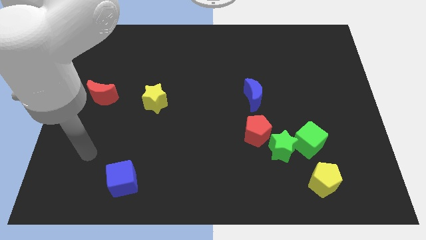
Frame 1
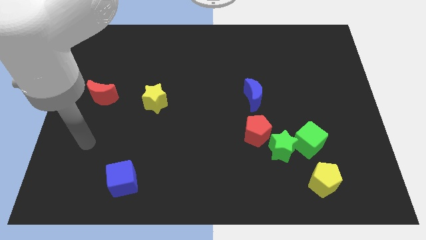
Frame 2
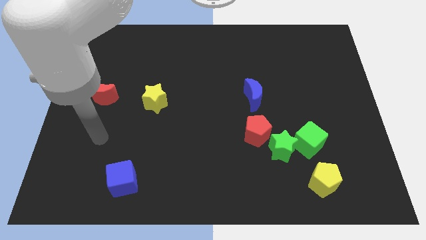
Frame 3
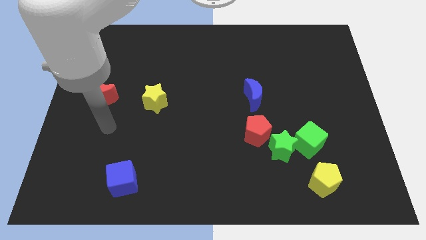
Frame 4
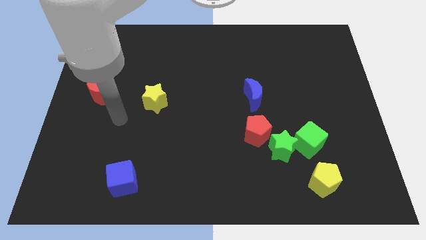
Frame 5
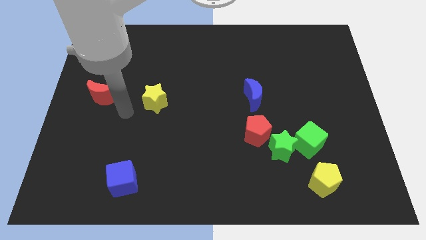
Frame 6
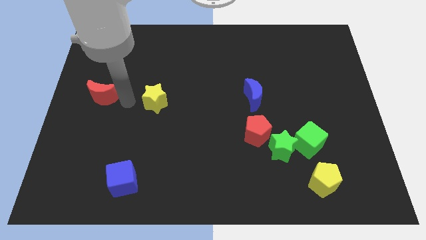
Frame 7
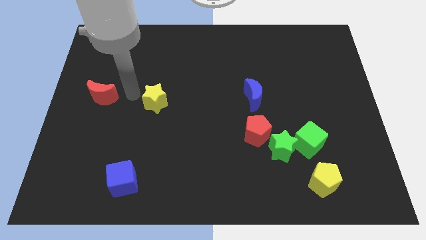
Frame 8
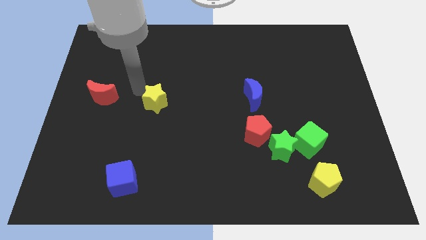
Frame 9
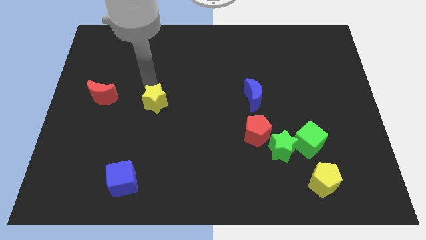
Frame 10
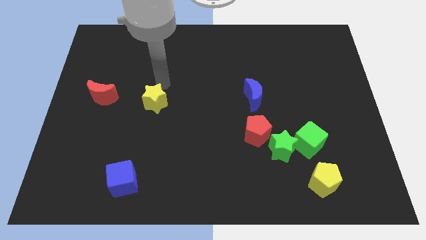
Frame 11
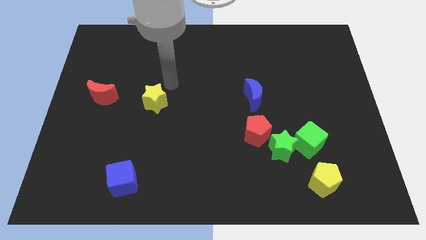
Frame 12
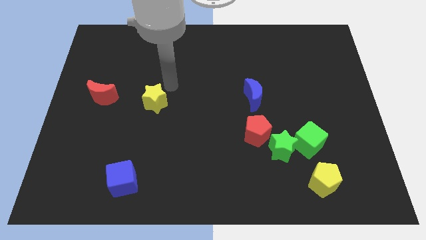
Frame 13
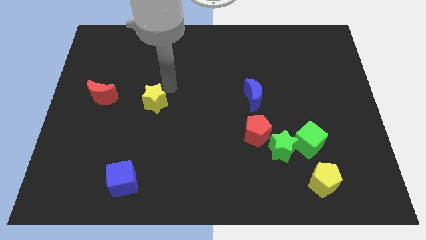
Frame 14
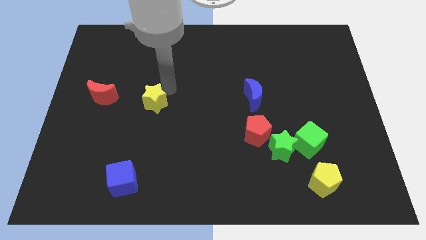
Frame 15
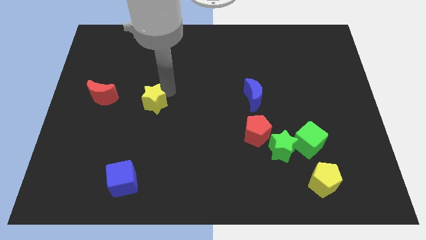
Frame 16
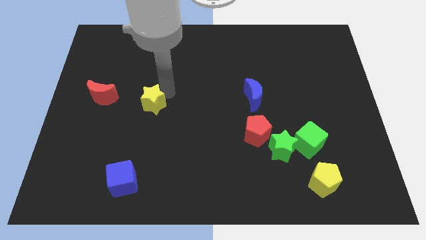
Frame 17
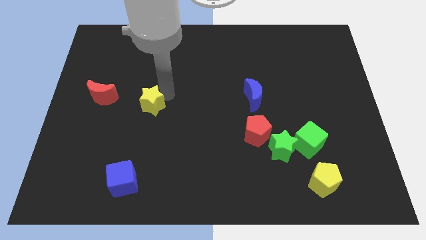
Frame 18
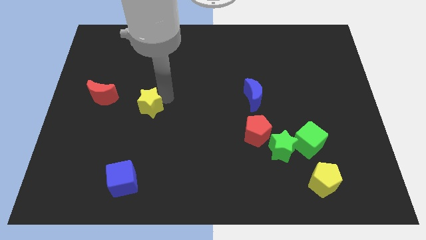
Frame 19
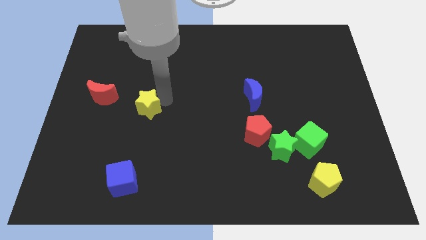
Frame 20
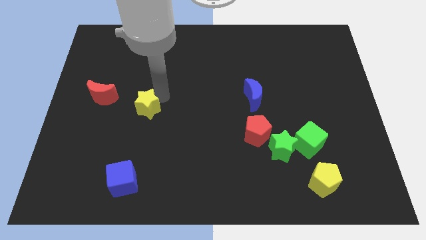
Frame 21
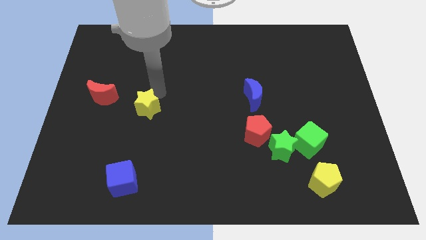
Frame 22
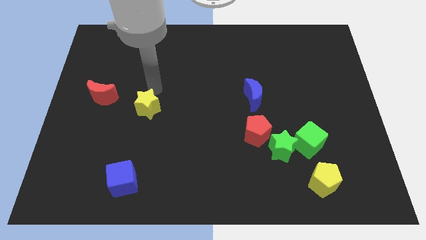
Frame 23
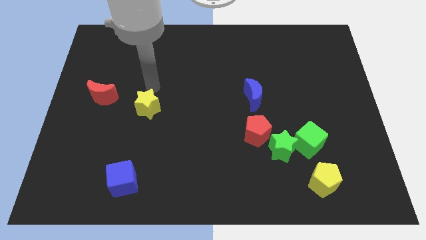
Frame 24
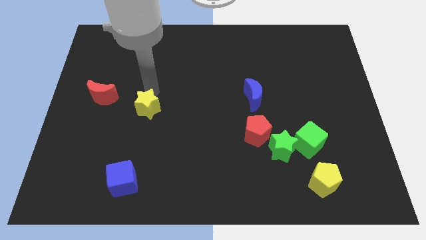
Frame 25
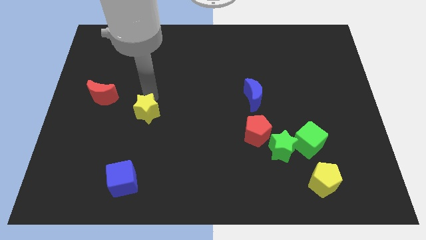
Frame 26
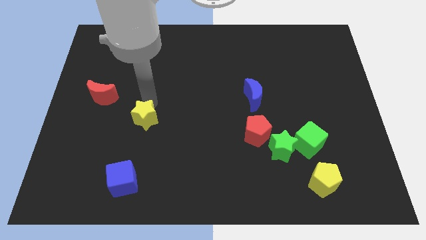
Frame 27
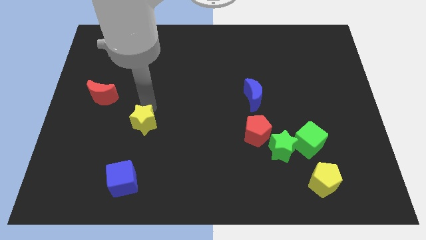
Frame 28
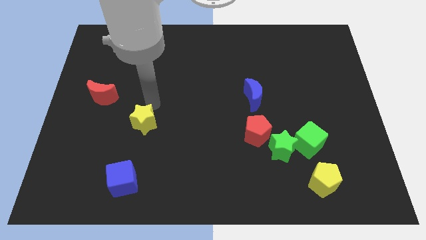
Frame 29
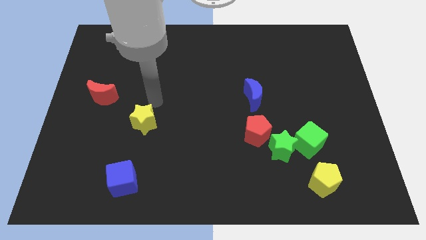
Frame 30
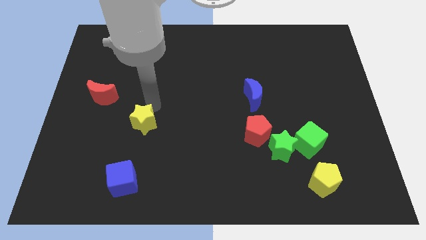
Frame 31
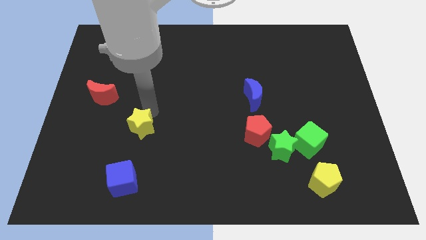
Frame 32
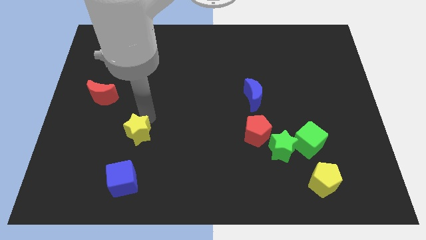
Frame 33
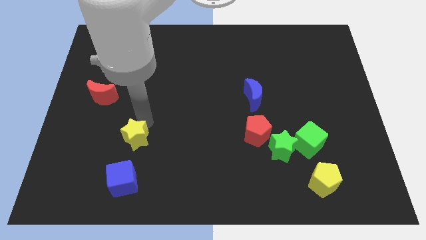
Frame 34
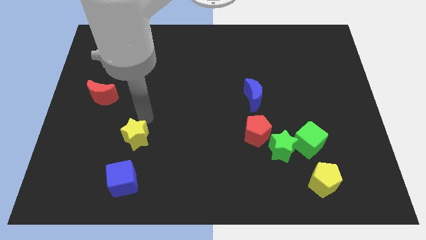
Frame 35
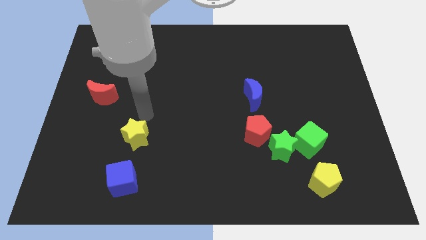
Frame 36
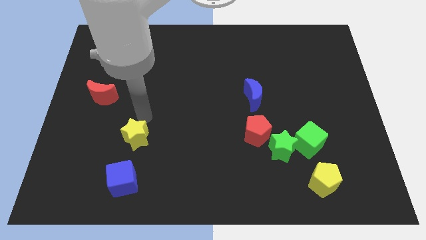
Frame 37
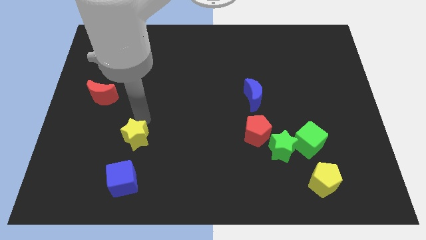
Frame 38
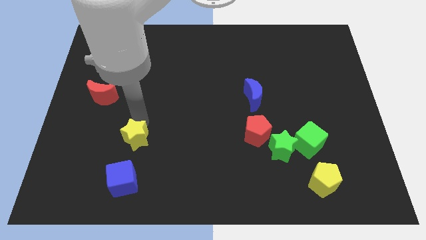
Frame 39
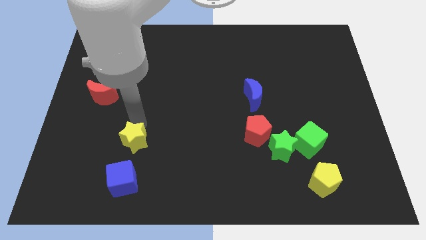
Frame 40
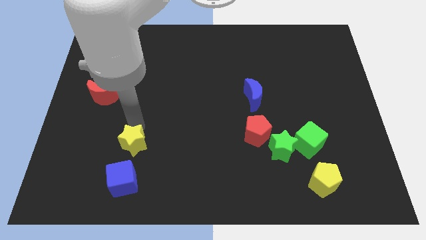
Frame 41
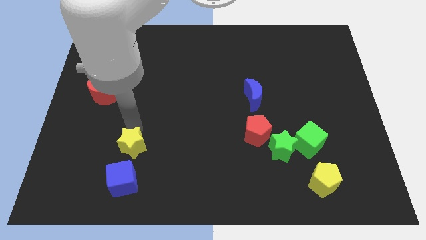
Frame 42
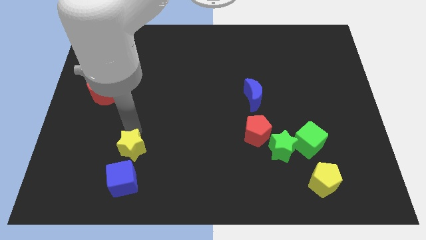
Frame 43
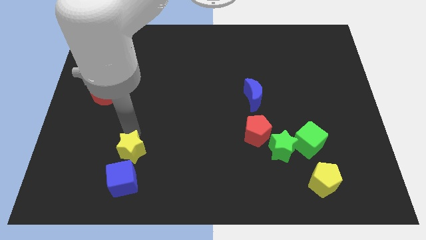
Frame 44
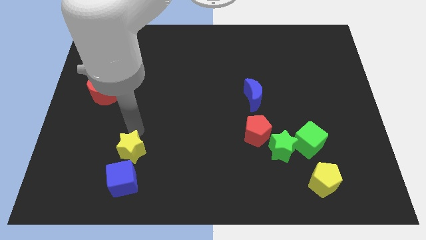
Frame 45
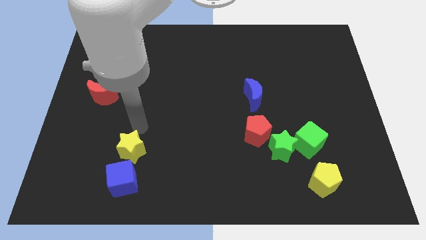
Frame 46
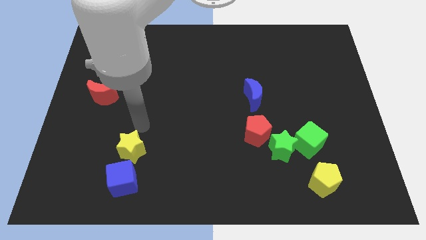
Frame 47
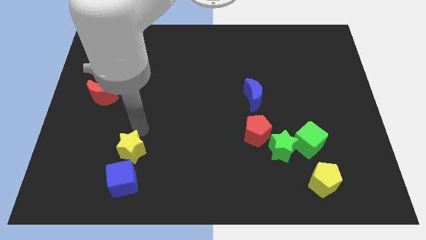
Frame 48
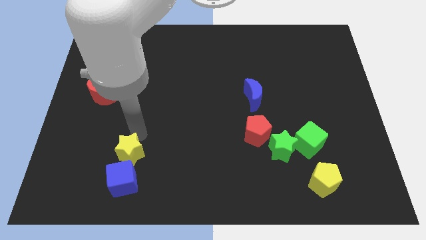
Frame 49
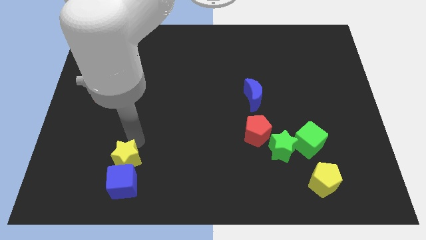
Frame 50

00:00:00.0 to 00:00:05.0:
push the yellow star close to the blue cube

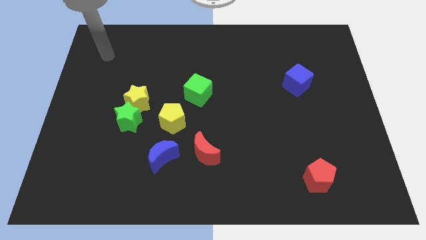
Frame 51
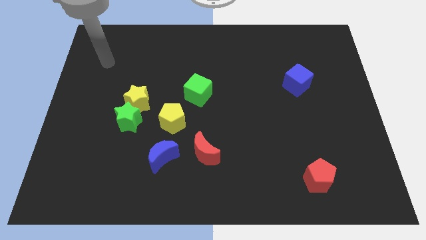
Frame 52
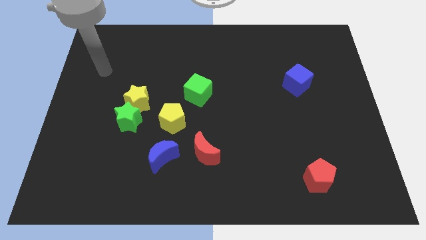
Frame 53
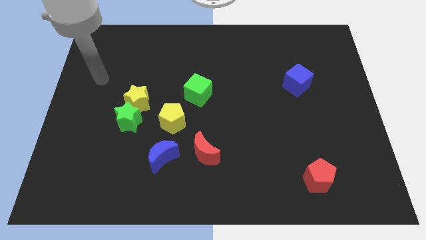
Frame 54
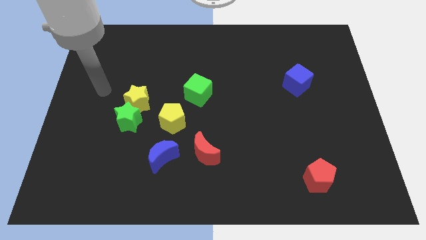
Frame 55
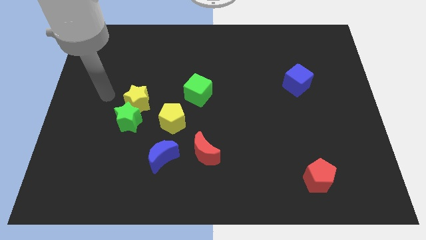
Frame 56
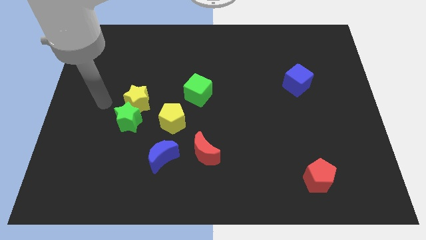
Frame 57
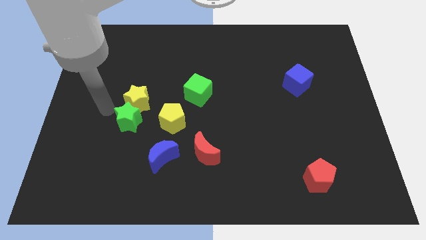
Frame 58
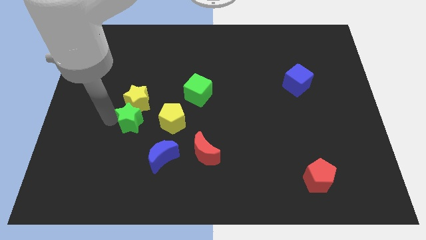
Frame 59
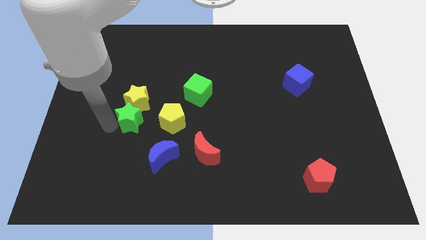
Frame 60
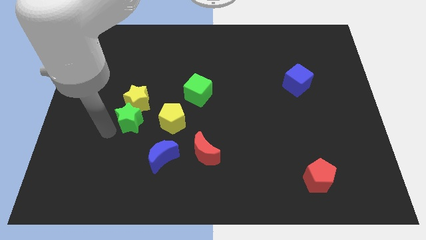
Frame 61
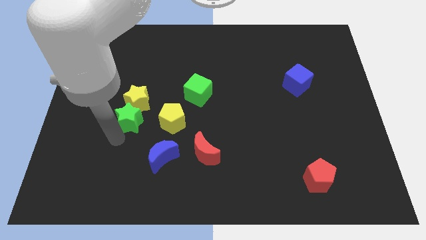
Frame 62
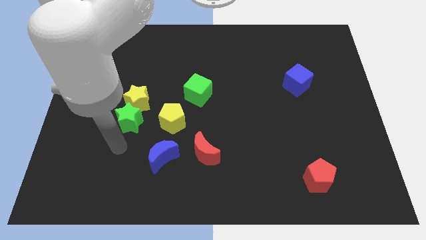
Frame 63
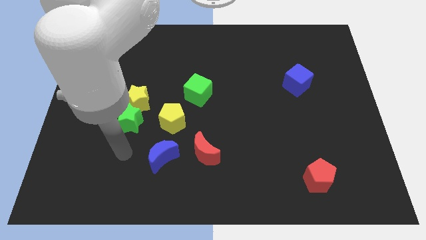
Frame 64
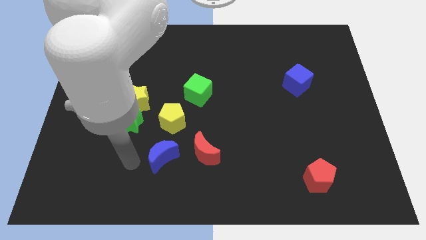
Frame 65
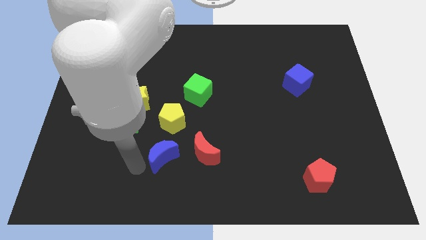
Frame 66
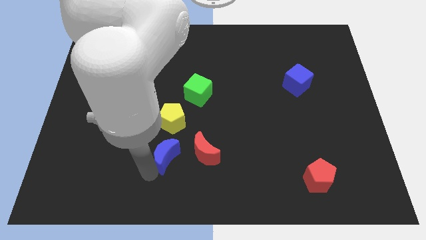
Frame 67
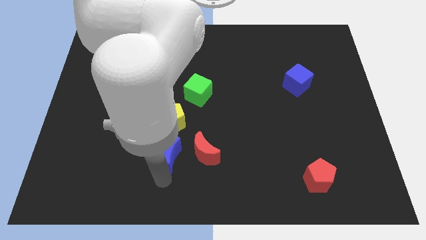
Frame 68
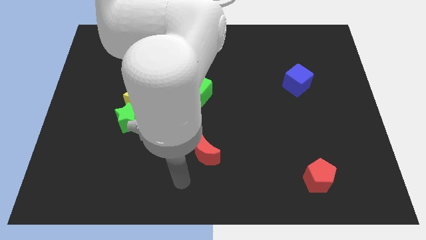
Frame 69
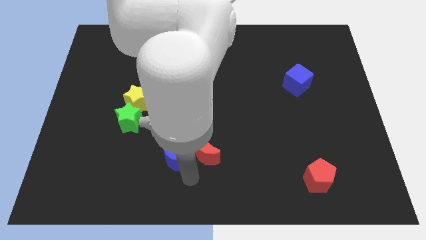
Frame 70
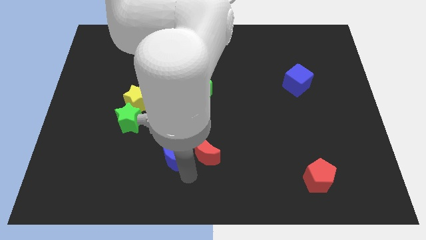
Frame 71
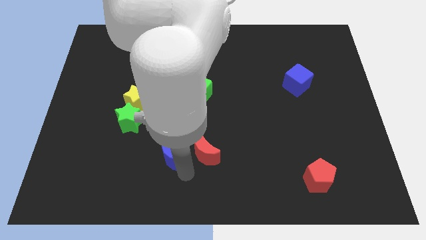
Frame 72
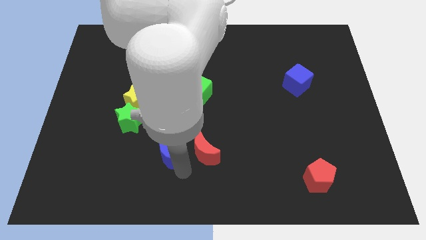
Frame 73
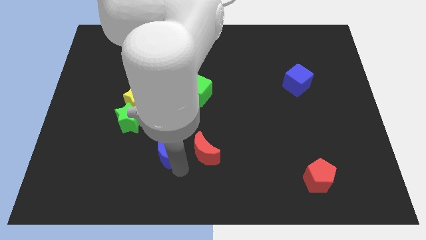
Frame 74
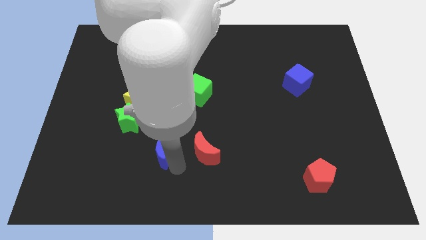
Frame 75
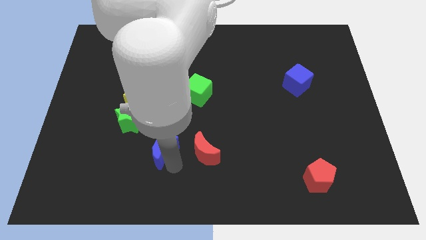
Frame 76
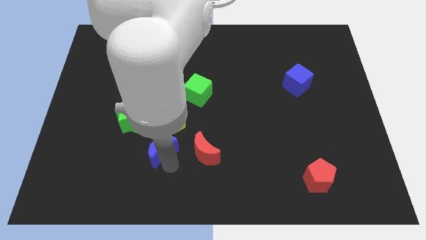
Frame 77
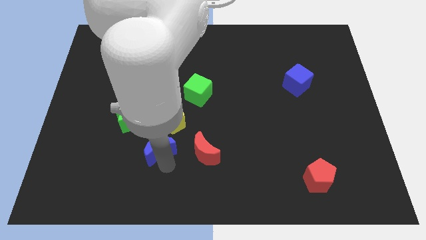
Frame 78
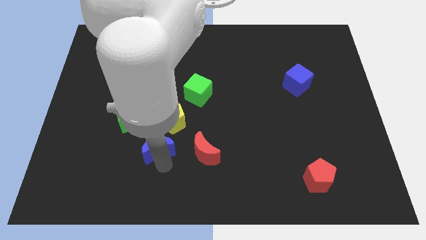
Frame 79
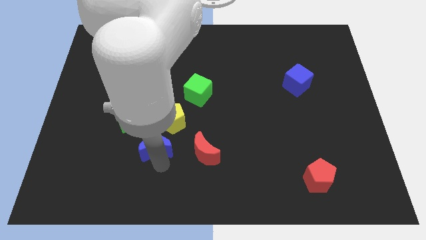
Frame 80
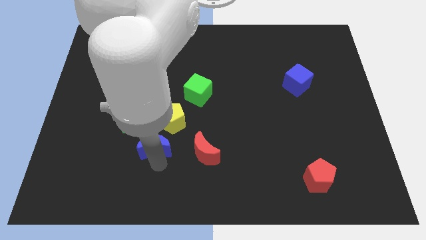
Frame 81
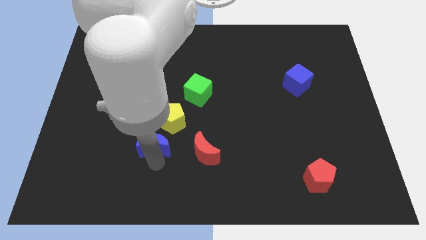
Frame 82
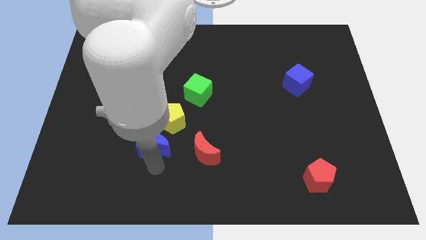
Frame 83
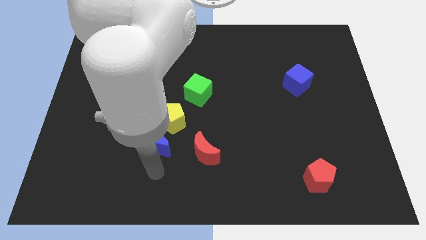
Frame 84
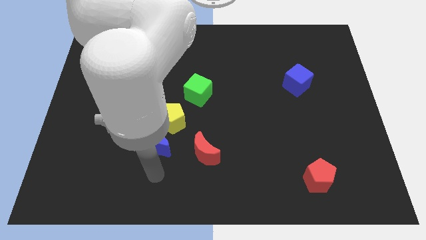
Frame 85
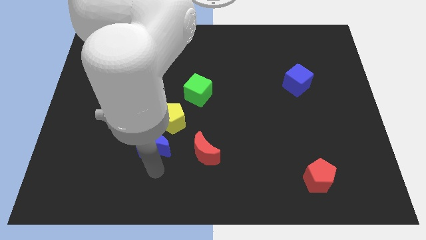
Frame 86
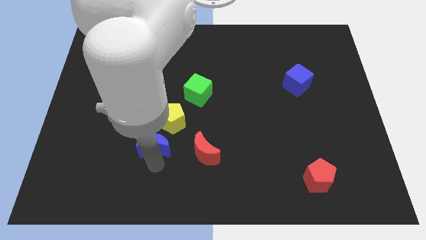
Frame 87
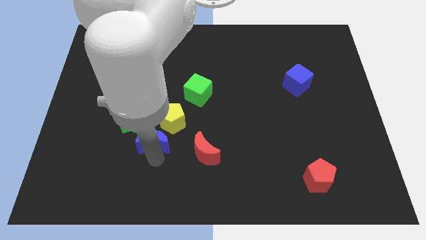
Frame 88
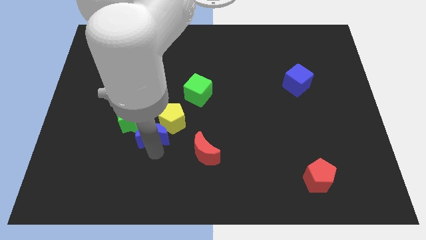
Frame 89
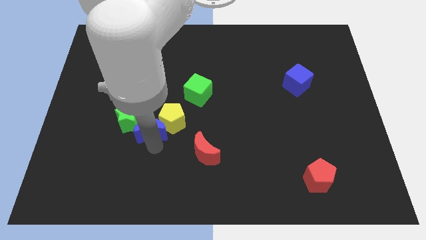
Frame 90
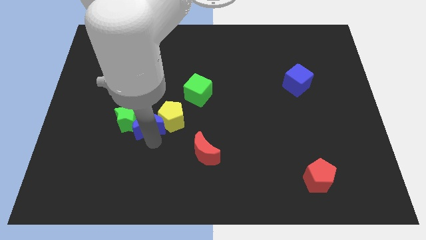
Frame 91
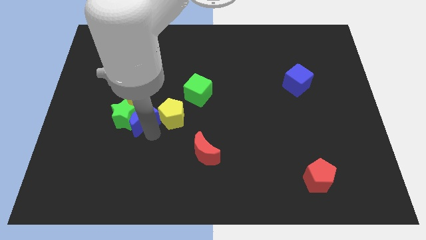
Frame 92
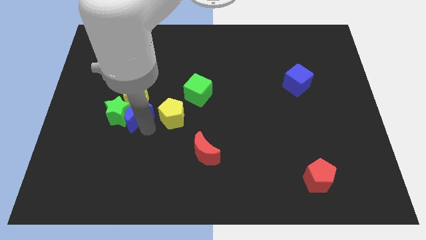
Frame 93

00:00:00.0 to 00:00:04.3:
push the blue moon towards the yellow star
